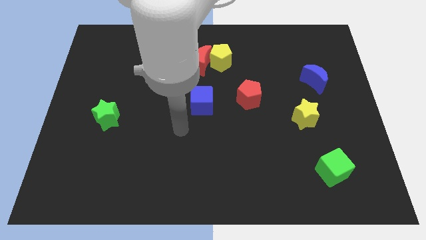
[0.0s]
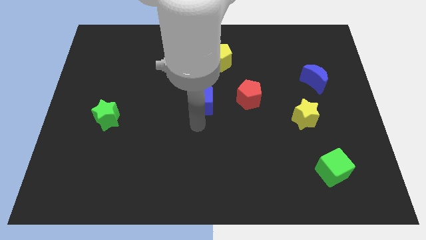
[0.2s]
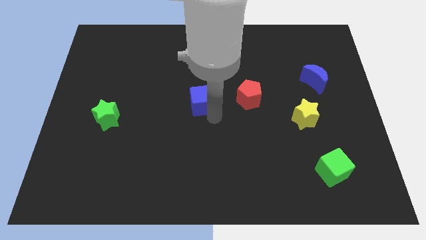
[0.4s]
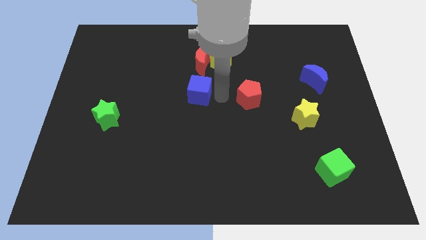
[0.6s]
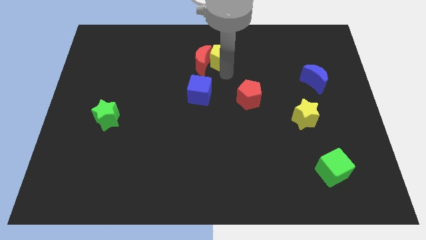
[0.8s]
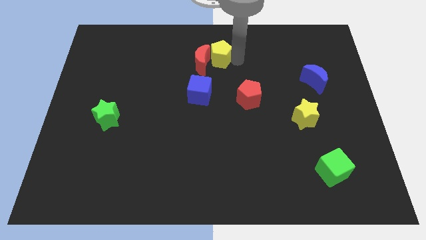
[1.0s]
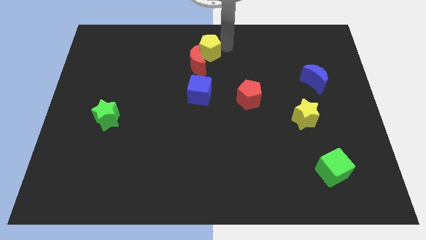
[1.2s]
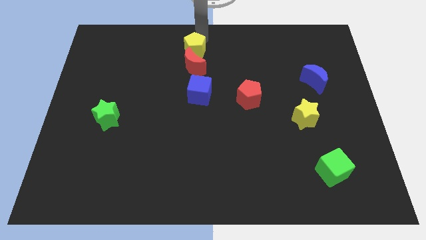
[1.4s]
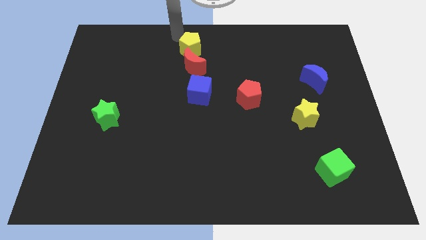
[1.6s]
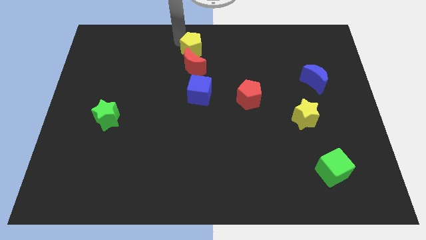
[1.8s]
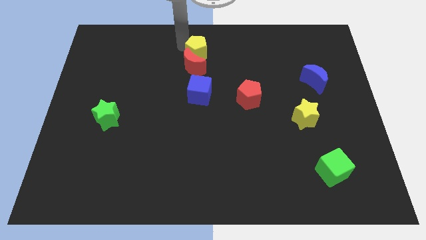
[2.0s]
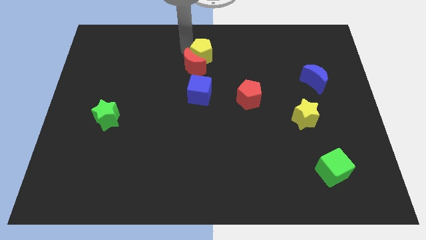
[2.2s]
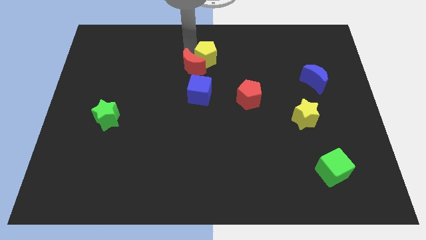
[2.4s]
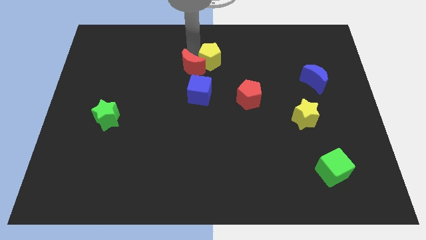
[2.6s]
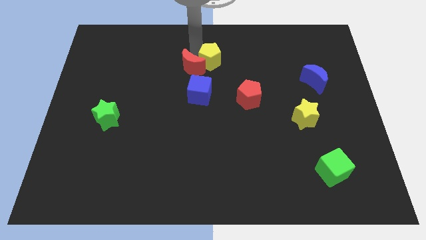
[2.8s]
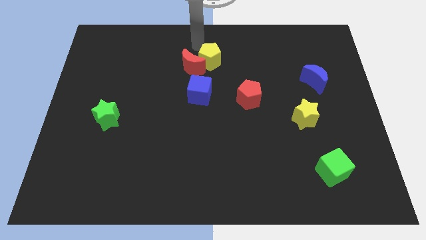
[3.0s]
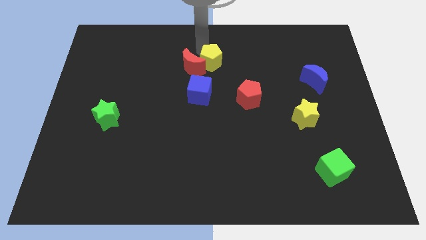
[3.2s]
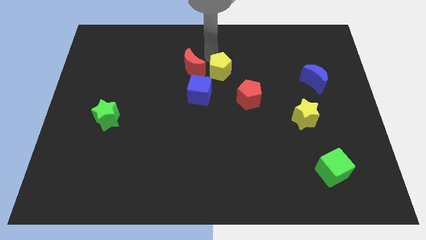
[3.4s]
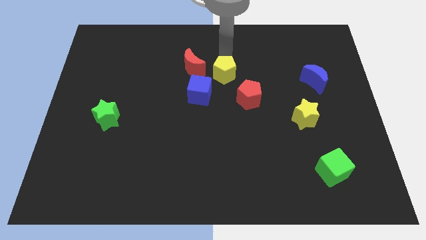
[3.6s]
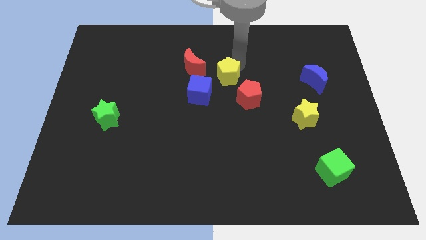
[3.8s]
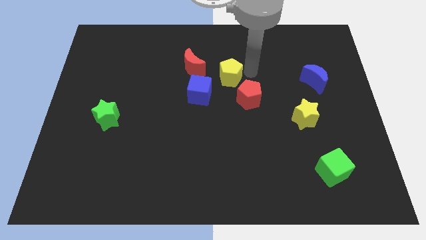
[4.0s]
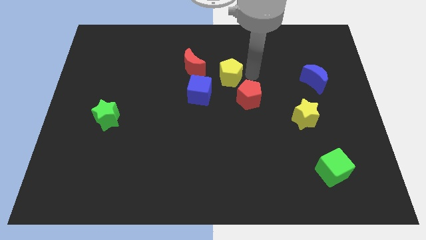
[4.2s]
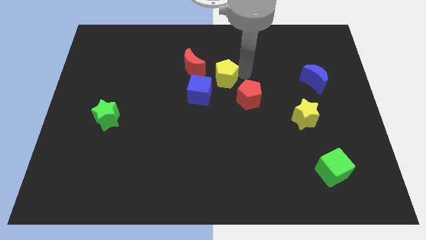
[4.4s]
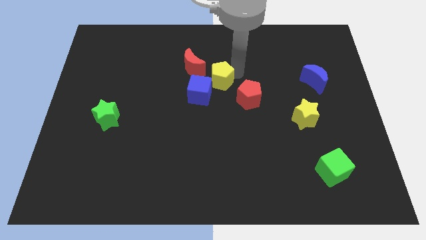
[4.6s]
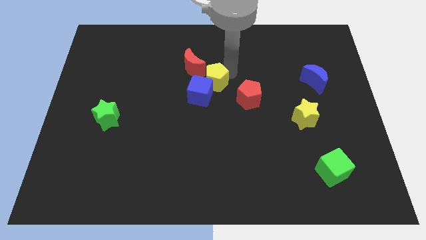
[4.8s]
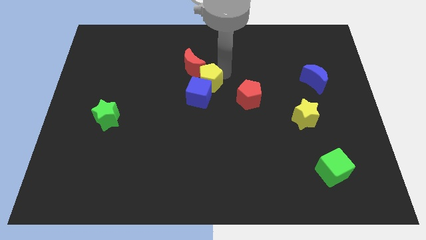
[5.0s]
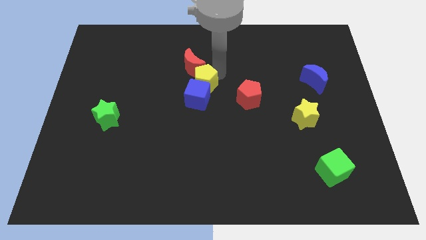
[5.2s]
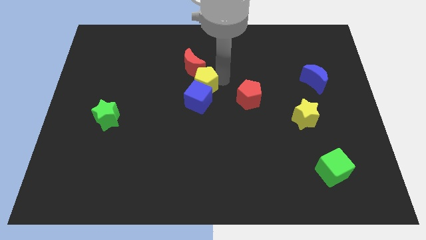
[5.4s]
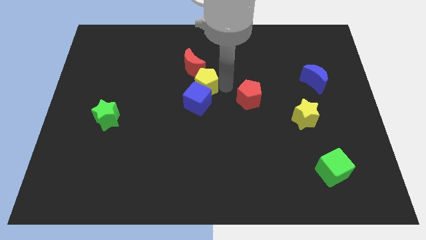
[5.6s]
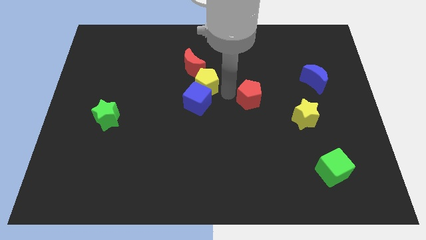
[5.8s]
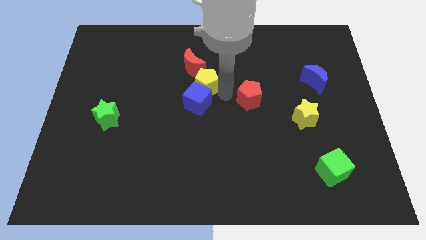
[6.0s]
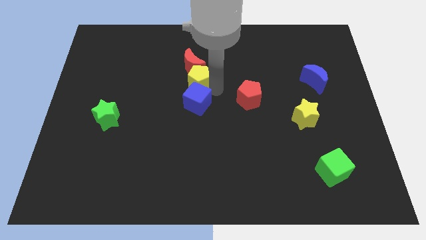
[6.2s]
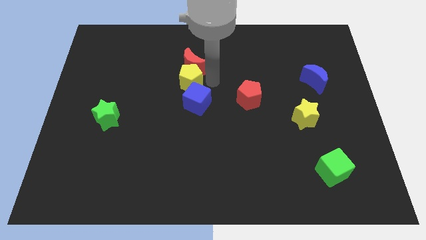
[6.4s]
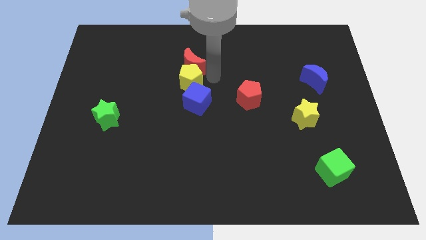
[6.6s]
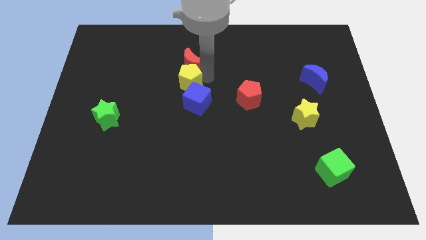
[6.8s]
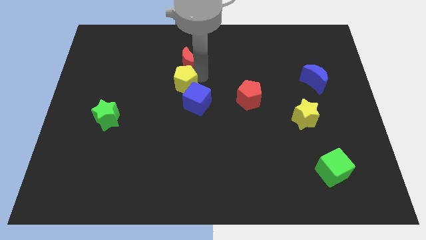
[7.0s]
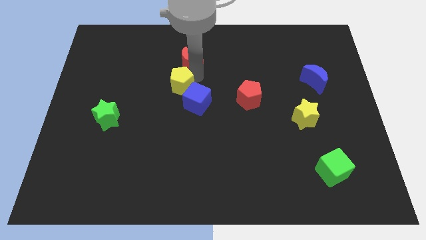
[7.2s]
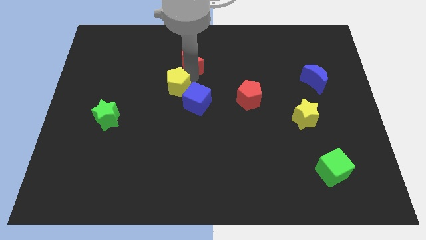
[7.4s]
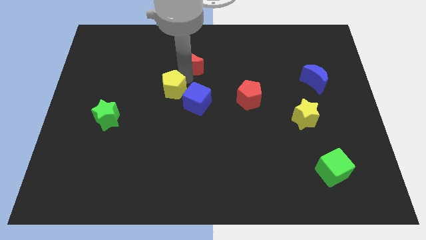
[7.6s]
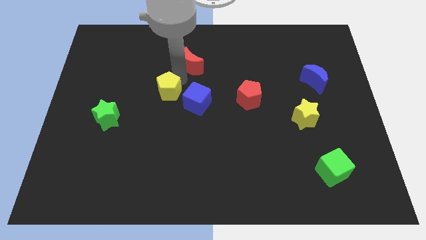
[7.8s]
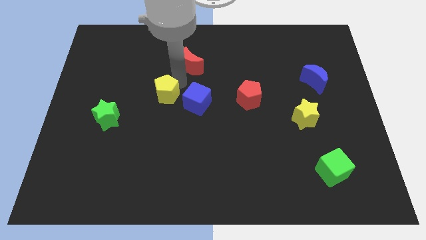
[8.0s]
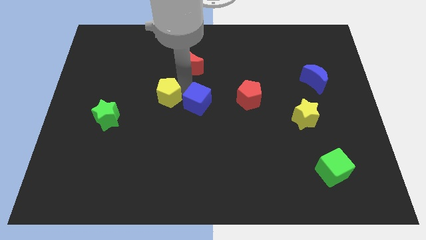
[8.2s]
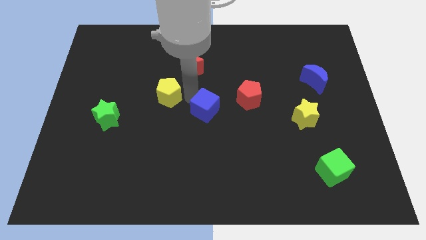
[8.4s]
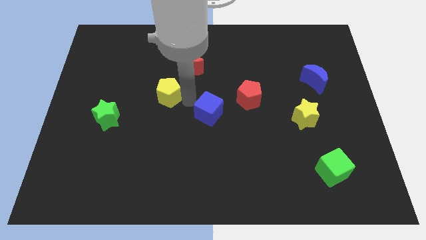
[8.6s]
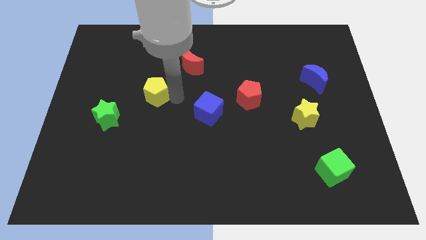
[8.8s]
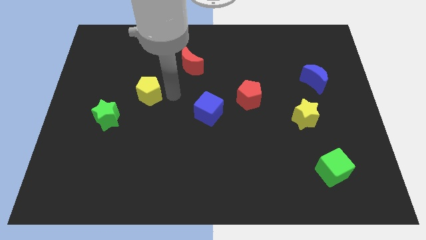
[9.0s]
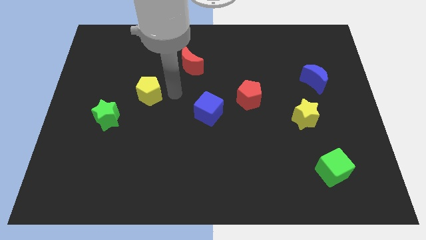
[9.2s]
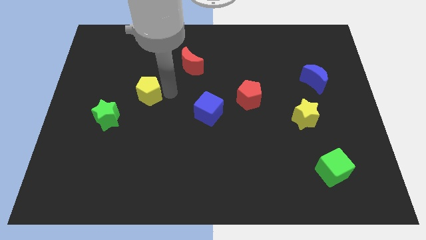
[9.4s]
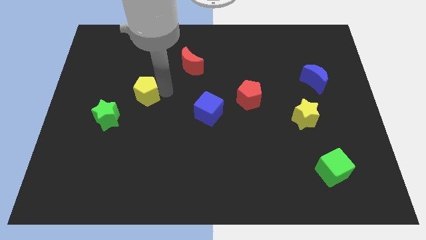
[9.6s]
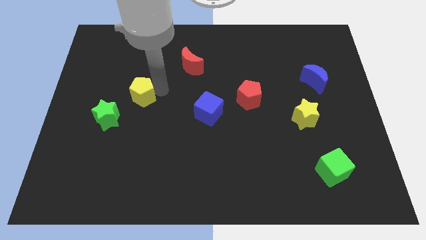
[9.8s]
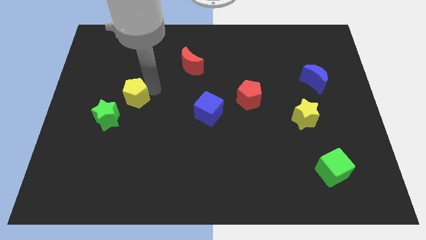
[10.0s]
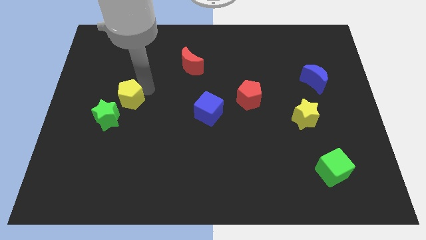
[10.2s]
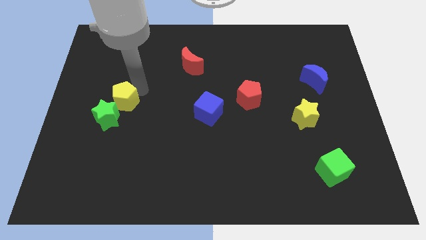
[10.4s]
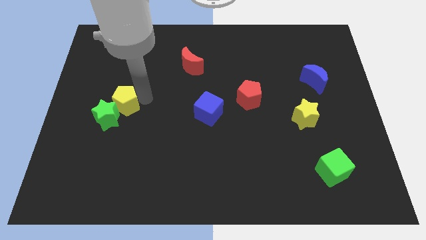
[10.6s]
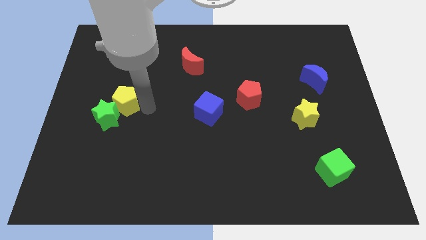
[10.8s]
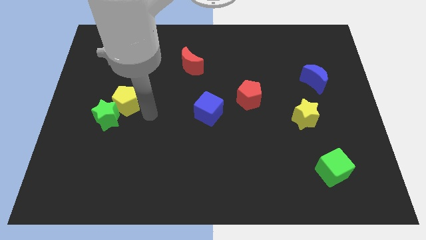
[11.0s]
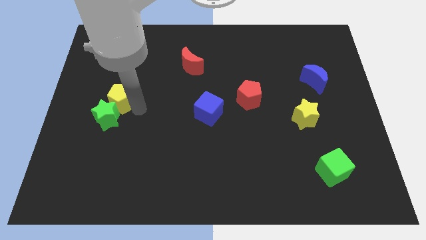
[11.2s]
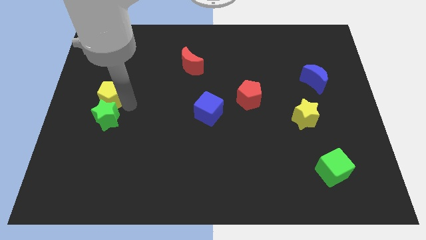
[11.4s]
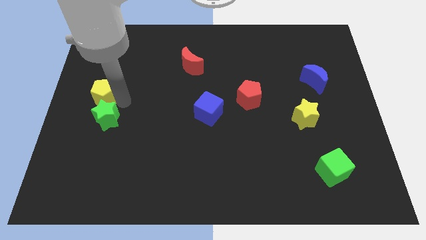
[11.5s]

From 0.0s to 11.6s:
move the yellow pentagon to the left side of the board

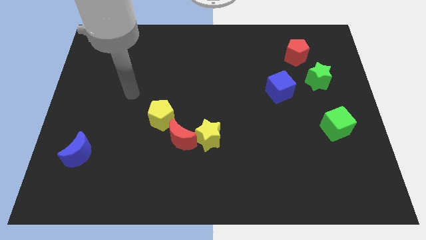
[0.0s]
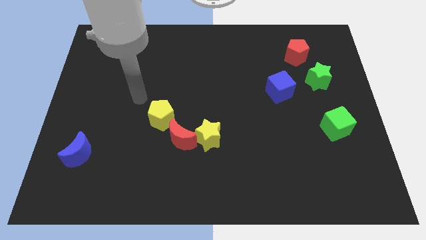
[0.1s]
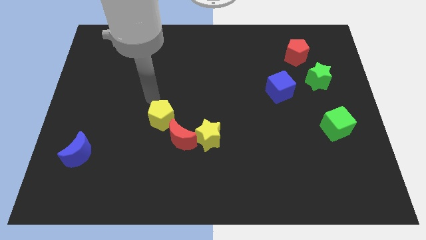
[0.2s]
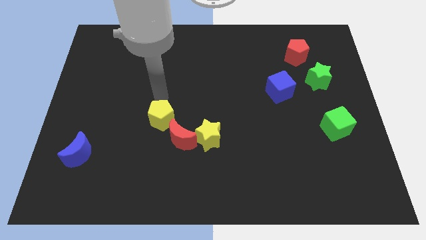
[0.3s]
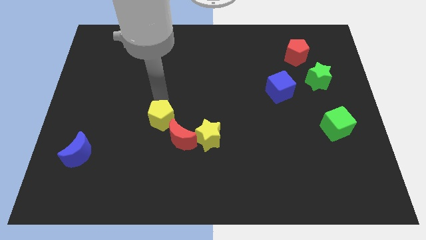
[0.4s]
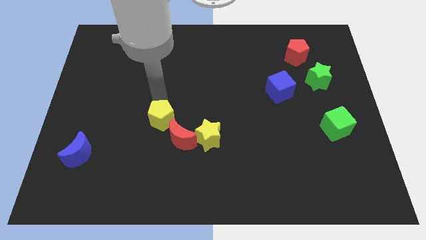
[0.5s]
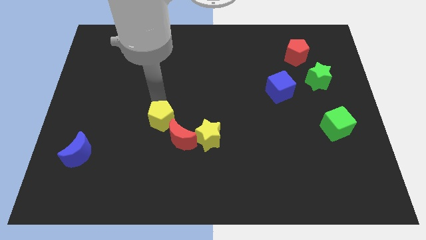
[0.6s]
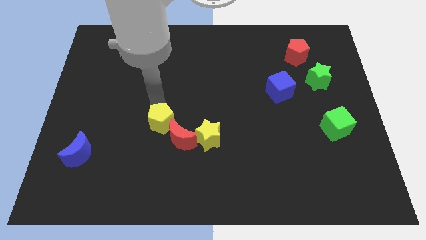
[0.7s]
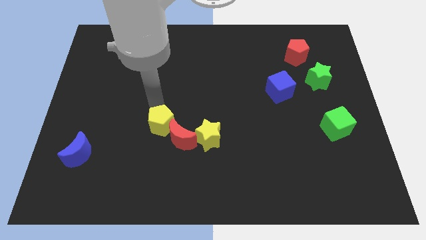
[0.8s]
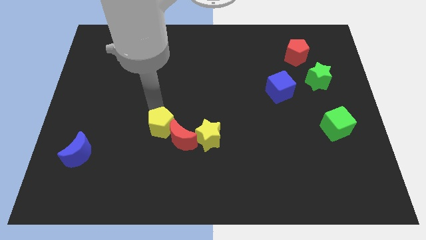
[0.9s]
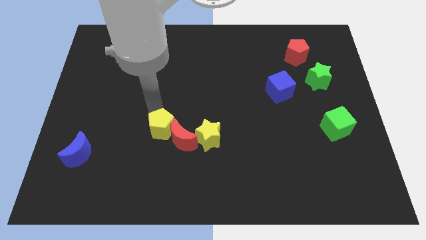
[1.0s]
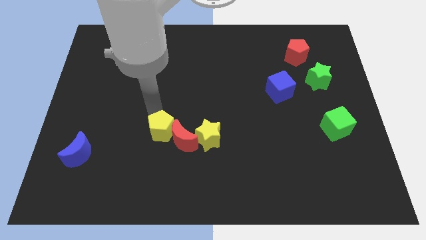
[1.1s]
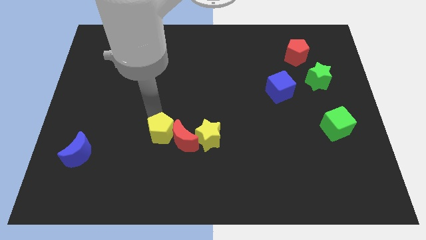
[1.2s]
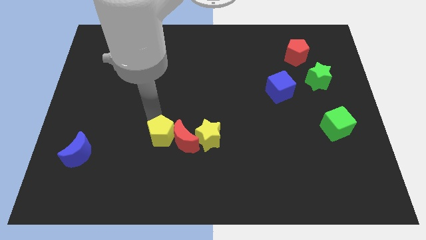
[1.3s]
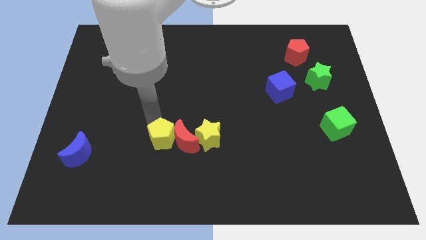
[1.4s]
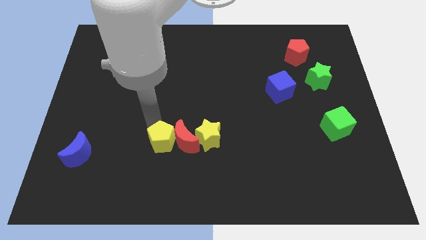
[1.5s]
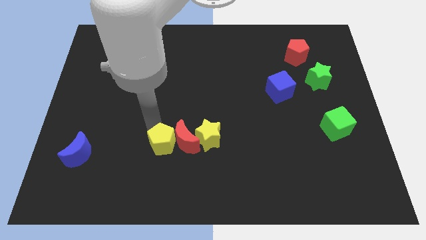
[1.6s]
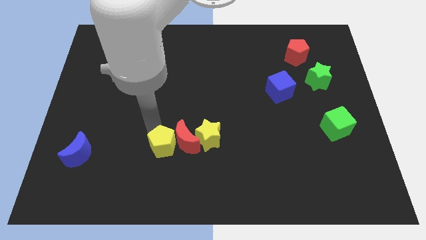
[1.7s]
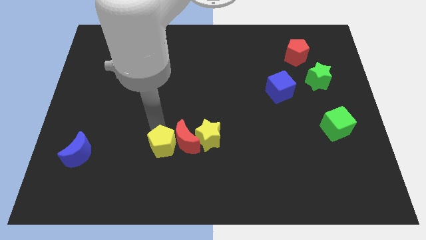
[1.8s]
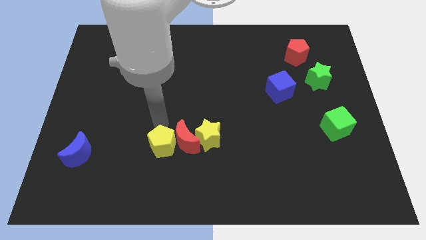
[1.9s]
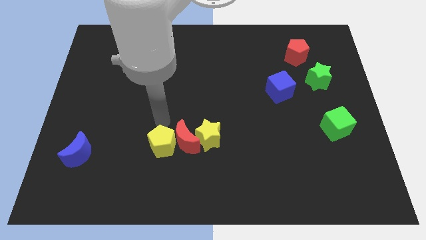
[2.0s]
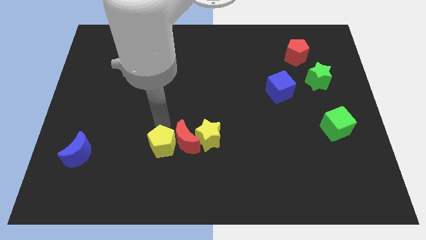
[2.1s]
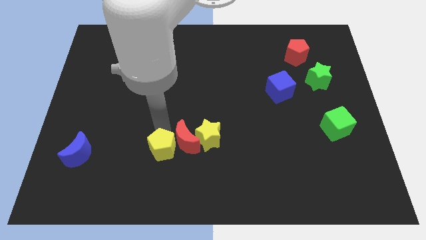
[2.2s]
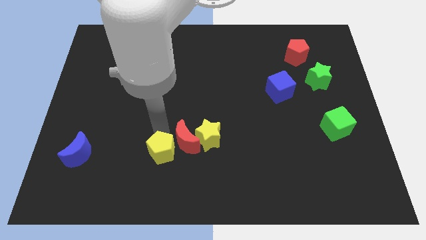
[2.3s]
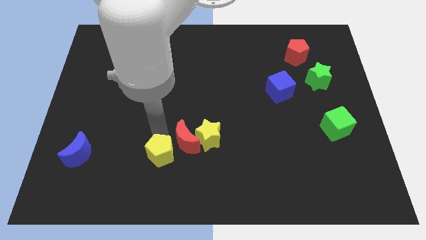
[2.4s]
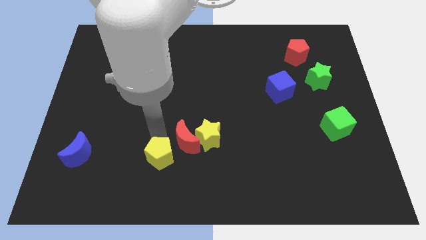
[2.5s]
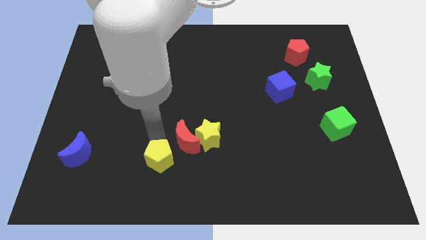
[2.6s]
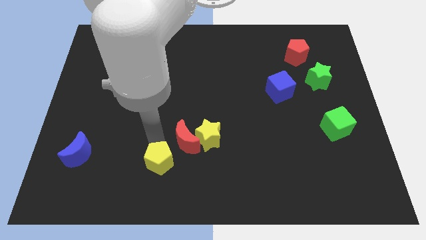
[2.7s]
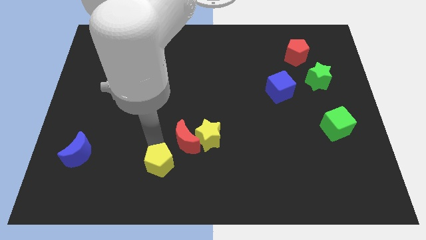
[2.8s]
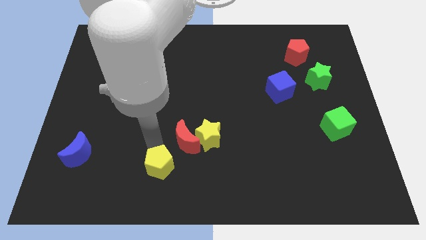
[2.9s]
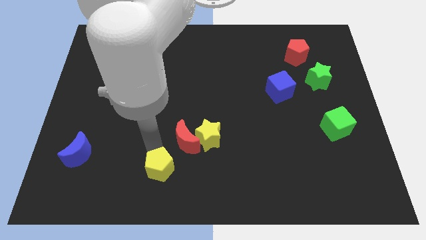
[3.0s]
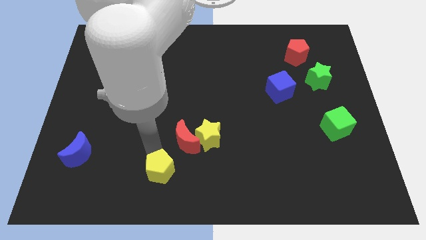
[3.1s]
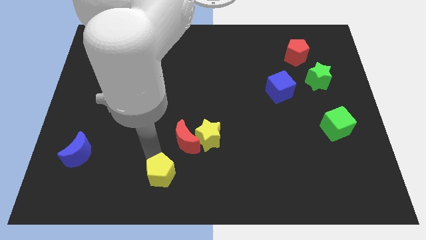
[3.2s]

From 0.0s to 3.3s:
slide the yellow pentagon to the bottom
